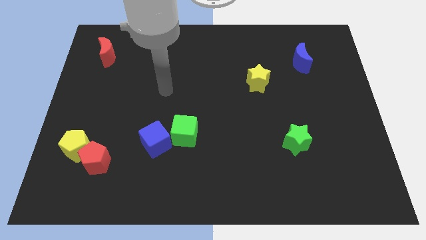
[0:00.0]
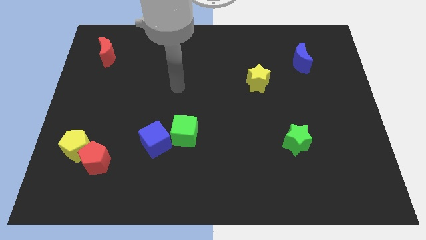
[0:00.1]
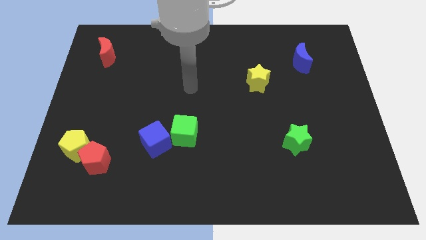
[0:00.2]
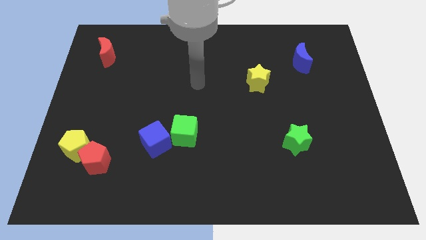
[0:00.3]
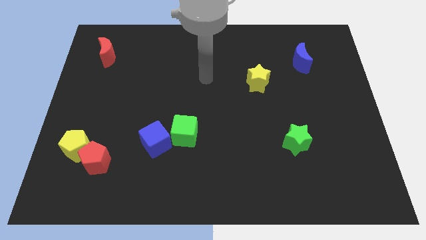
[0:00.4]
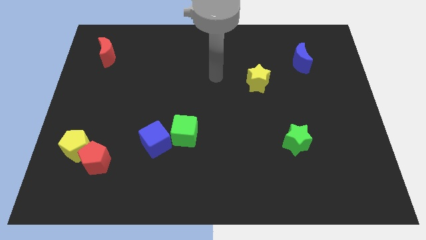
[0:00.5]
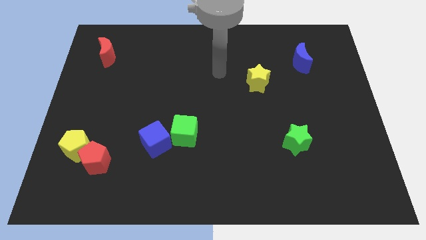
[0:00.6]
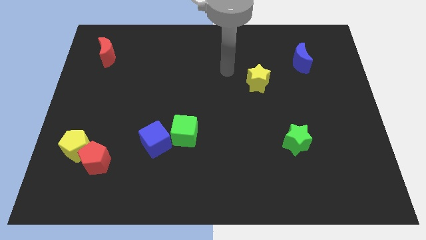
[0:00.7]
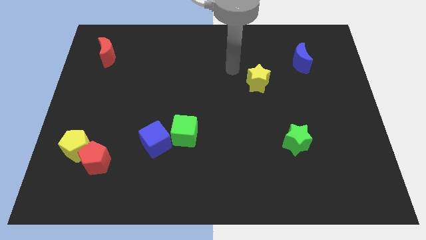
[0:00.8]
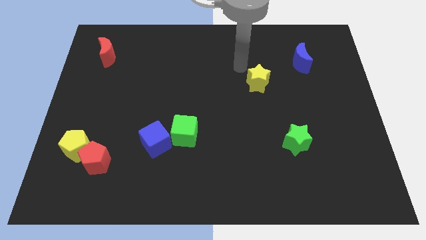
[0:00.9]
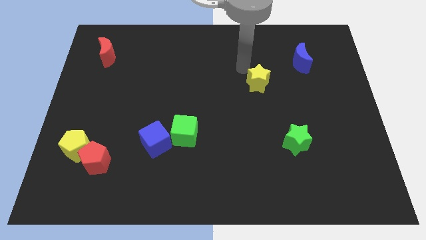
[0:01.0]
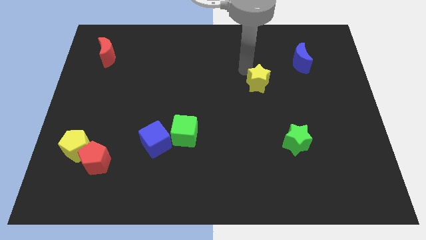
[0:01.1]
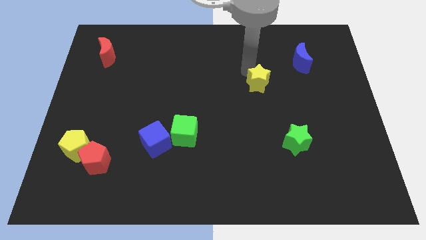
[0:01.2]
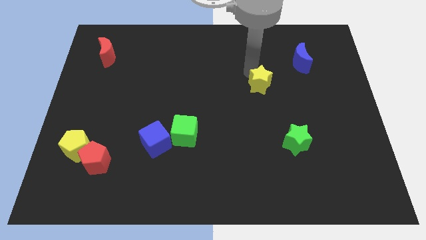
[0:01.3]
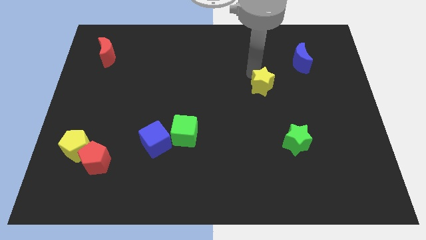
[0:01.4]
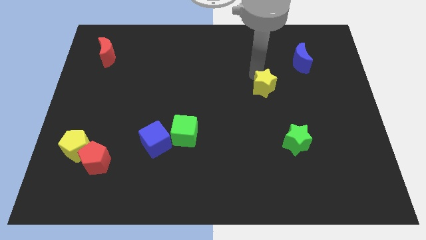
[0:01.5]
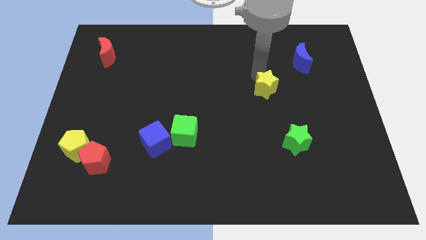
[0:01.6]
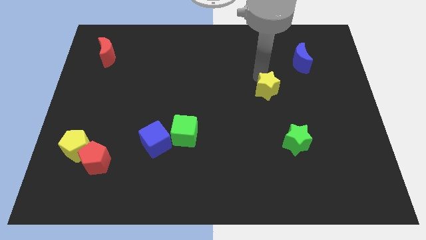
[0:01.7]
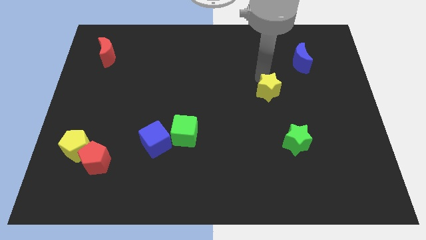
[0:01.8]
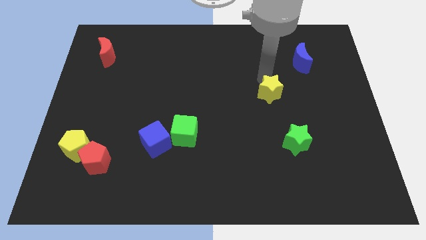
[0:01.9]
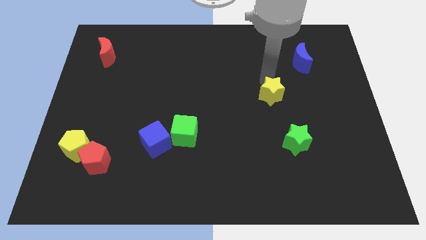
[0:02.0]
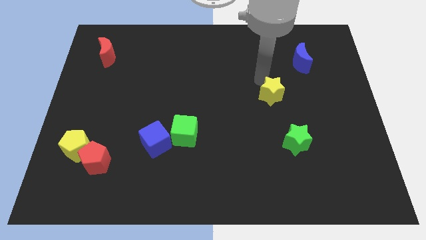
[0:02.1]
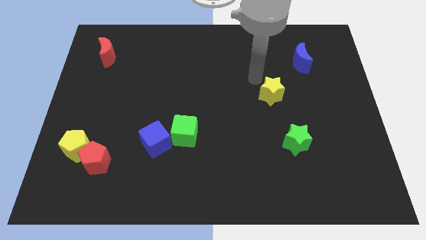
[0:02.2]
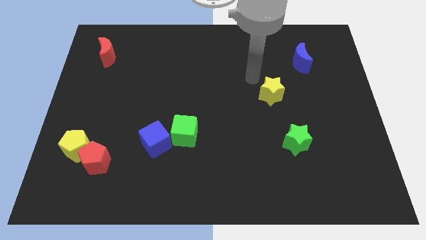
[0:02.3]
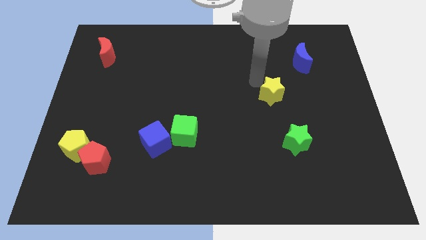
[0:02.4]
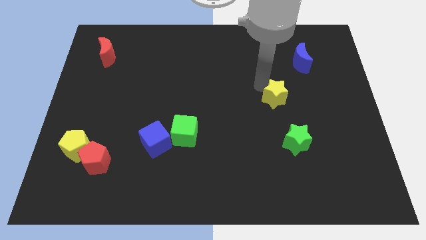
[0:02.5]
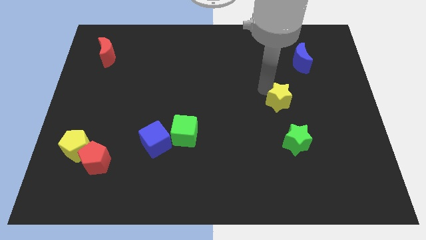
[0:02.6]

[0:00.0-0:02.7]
slightly push the yellow star down and to the right diagonally

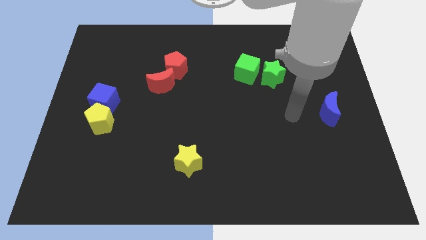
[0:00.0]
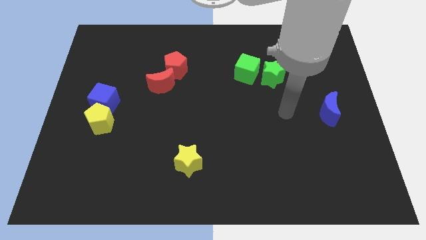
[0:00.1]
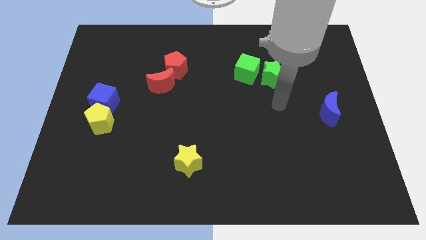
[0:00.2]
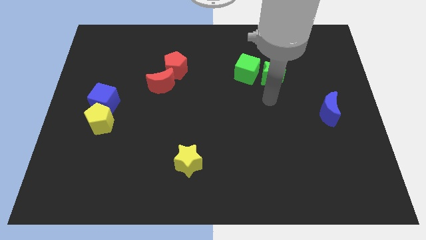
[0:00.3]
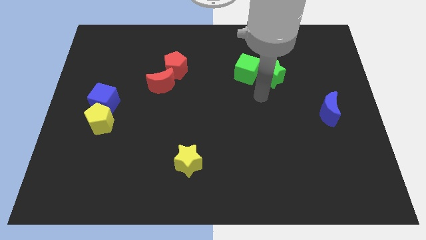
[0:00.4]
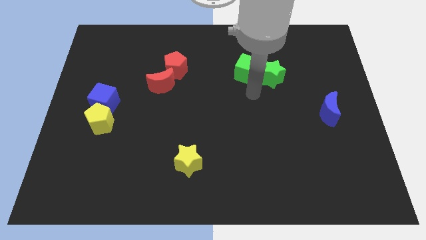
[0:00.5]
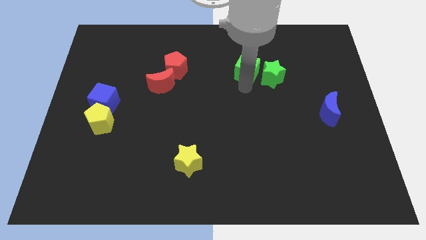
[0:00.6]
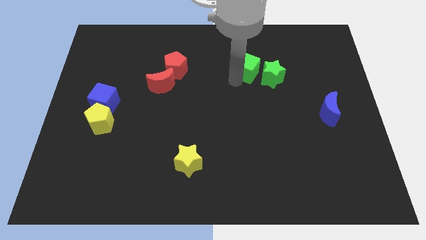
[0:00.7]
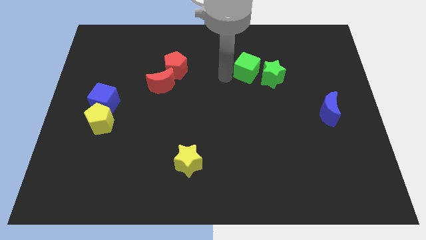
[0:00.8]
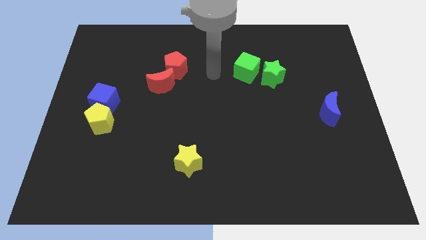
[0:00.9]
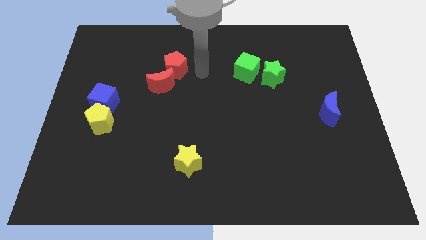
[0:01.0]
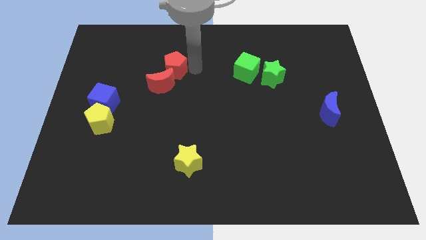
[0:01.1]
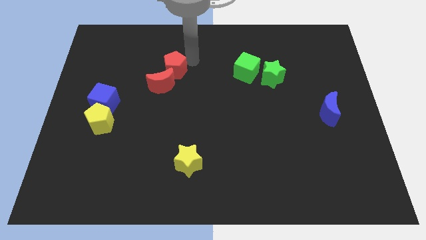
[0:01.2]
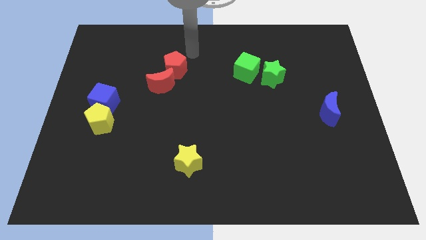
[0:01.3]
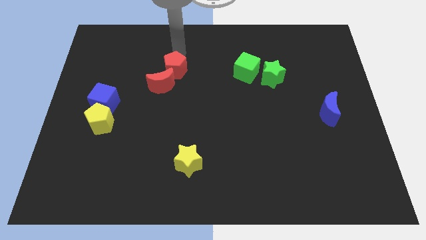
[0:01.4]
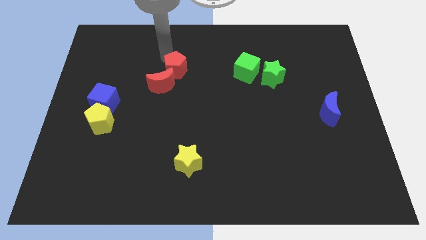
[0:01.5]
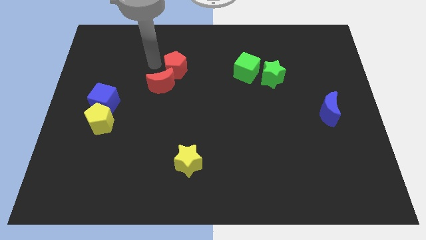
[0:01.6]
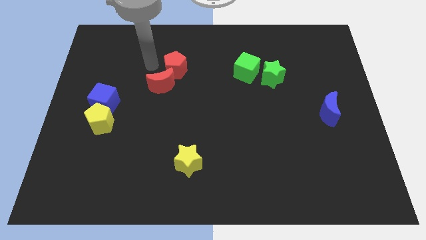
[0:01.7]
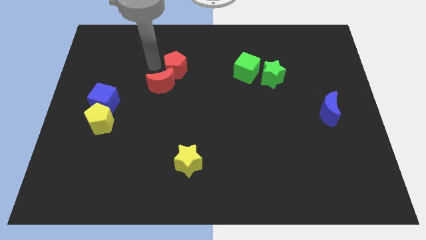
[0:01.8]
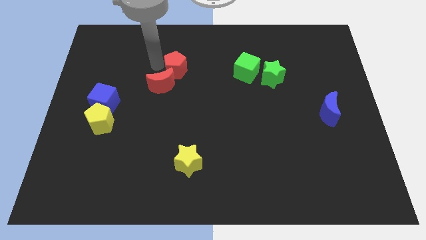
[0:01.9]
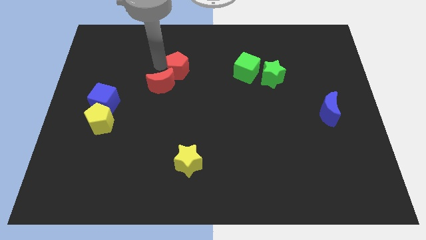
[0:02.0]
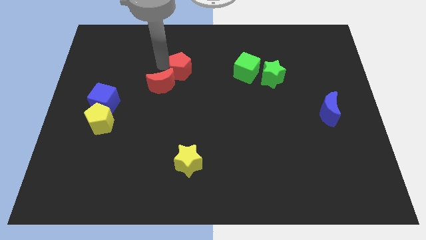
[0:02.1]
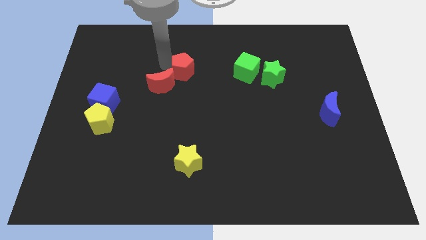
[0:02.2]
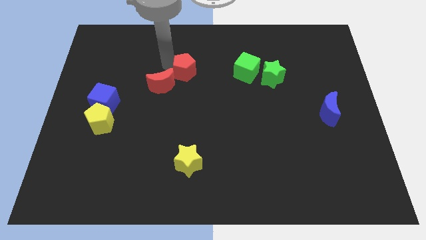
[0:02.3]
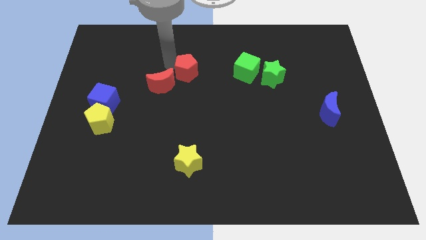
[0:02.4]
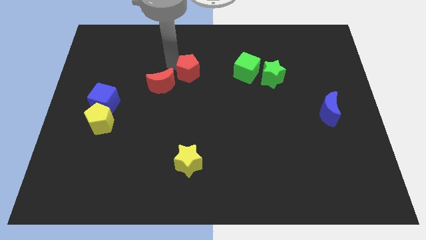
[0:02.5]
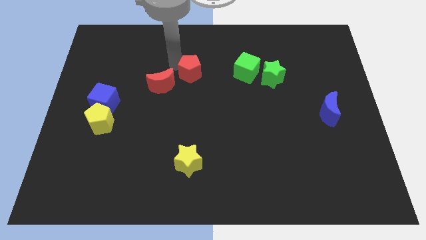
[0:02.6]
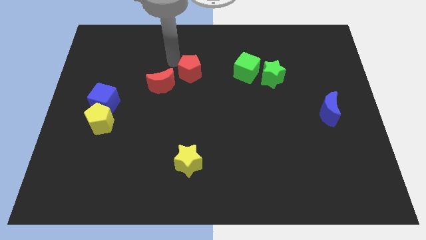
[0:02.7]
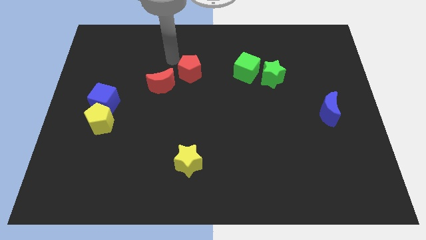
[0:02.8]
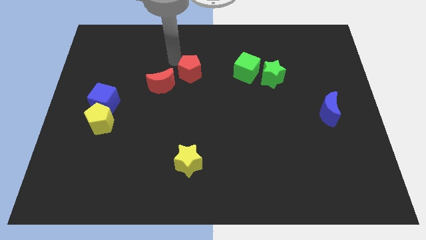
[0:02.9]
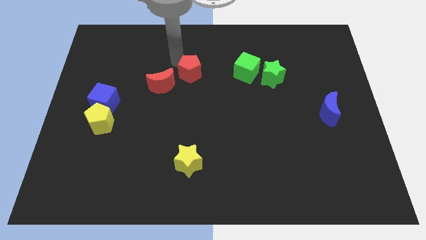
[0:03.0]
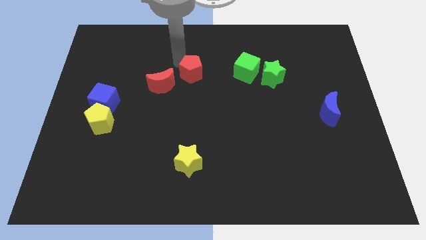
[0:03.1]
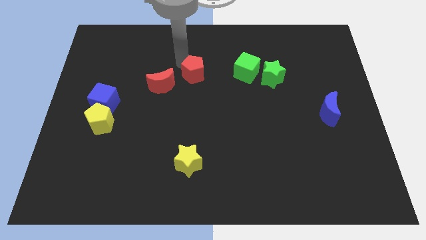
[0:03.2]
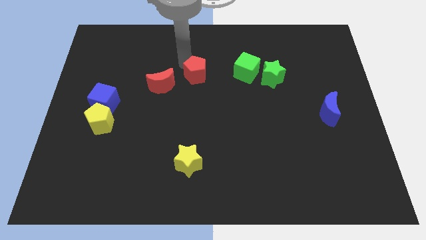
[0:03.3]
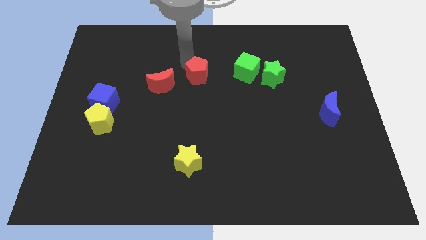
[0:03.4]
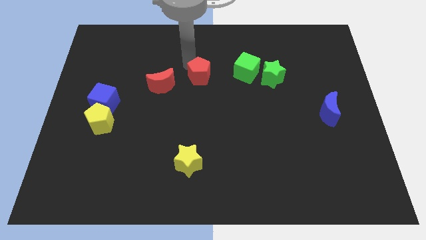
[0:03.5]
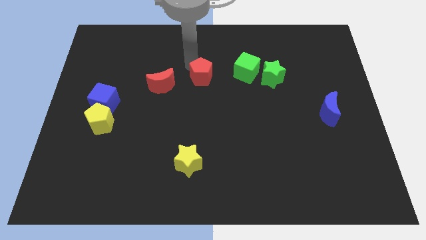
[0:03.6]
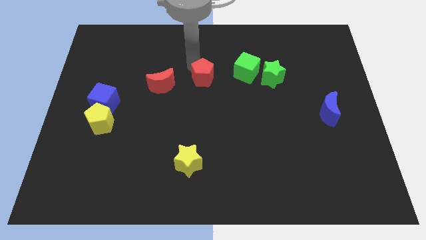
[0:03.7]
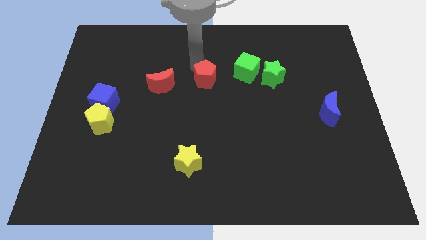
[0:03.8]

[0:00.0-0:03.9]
slide the red pentagon downwards and then to the right a little bit

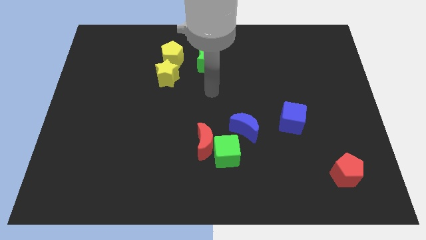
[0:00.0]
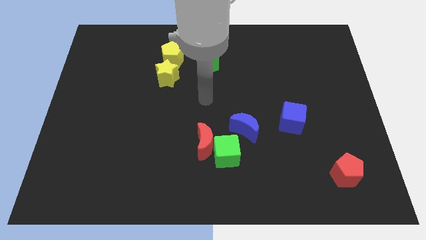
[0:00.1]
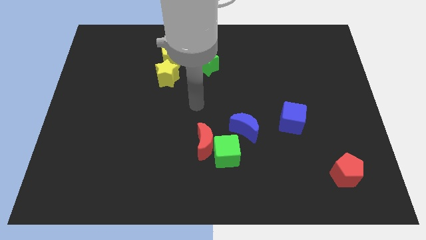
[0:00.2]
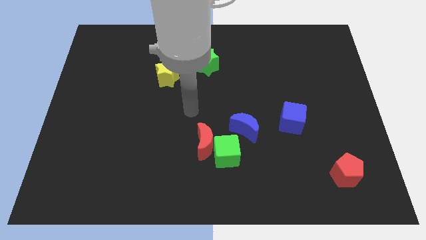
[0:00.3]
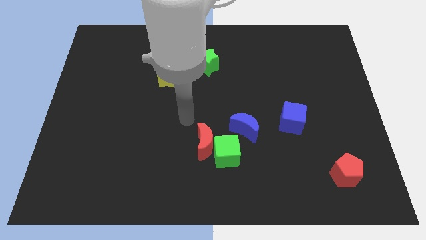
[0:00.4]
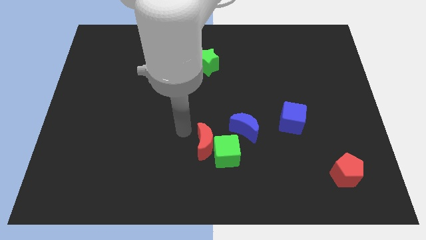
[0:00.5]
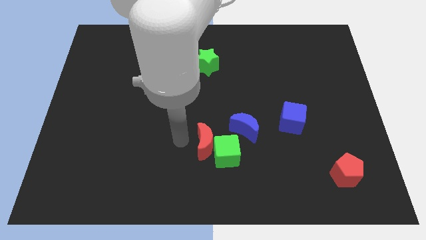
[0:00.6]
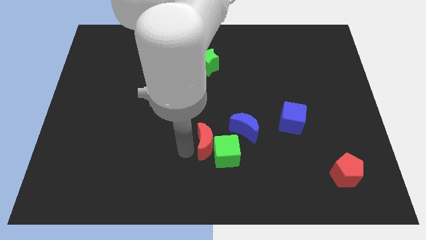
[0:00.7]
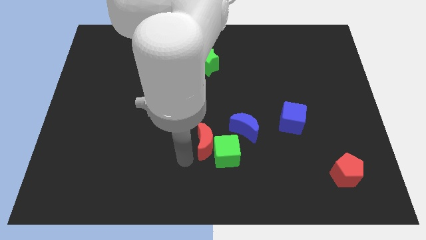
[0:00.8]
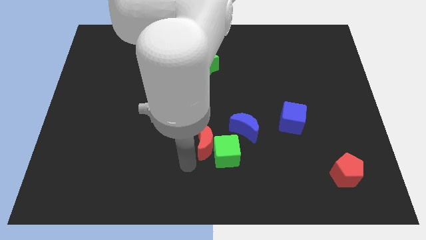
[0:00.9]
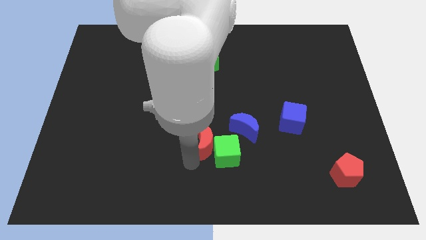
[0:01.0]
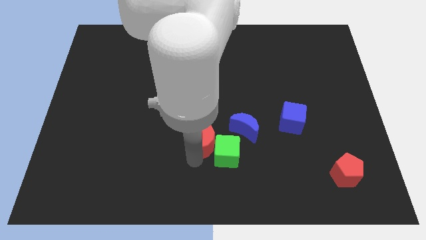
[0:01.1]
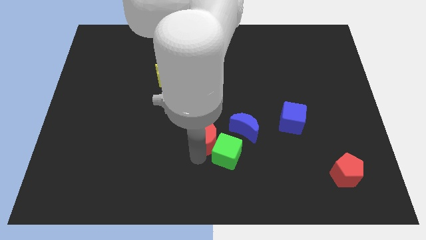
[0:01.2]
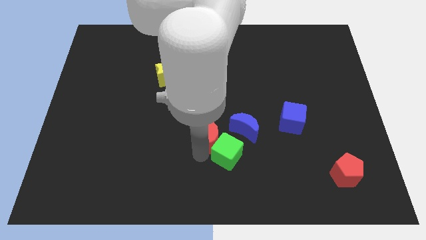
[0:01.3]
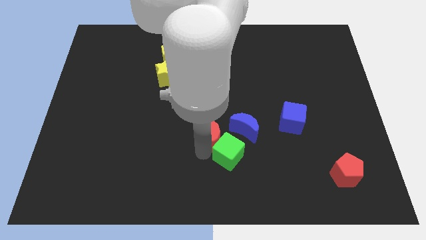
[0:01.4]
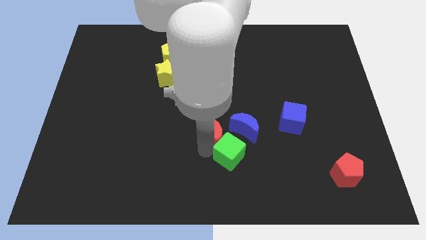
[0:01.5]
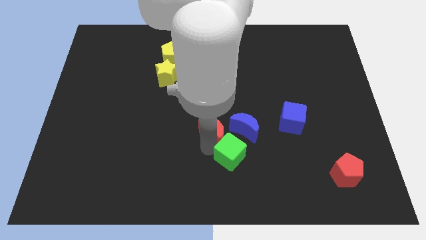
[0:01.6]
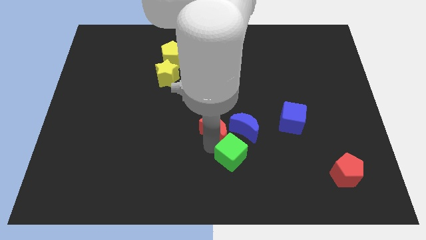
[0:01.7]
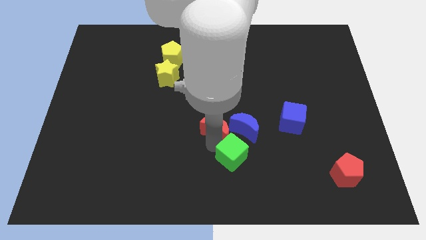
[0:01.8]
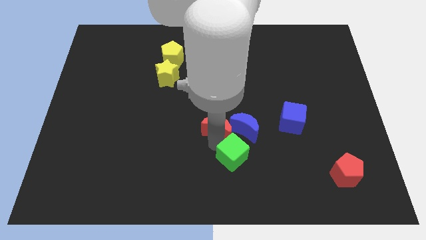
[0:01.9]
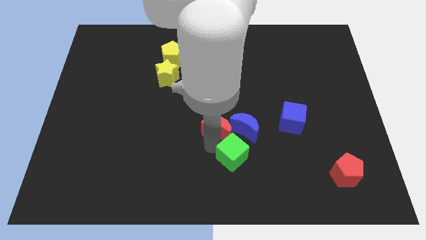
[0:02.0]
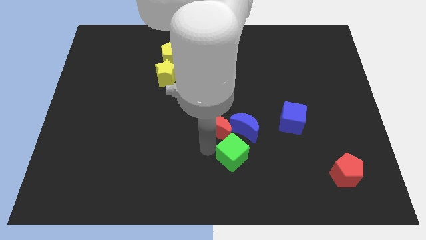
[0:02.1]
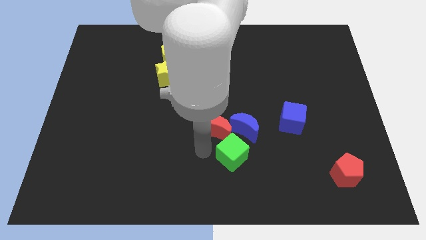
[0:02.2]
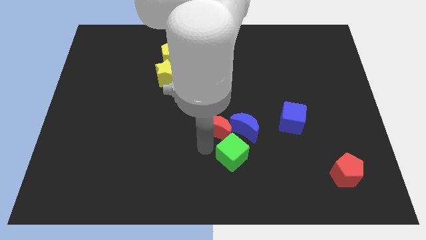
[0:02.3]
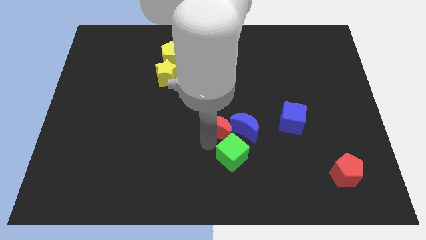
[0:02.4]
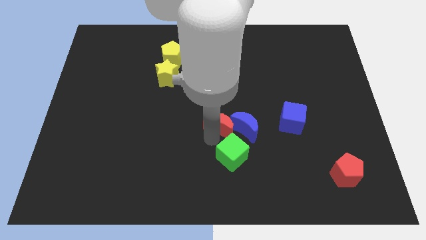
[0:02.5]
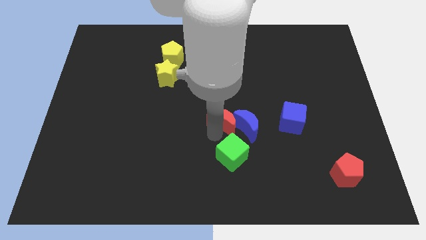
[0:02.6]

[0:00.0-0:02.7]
move the red moon diagonally up and right a little
